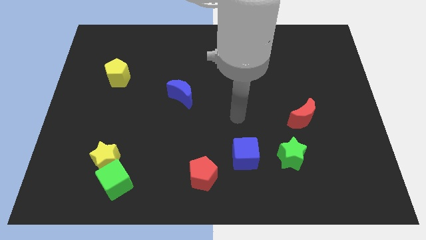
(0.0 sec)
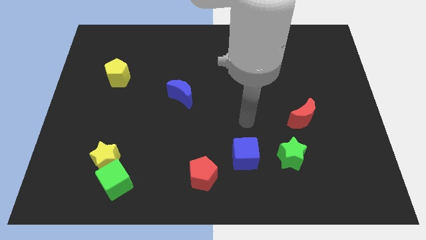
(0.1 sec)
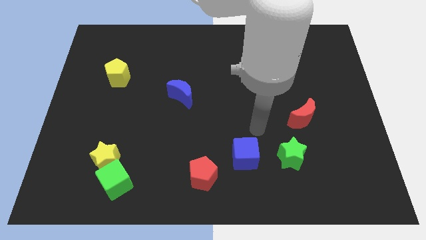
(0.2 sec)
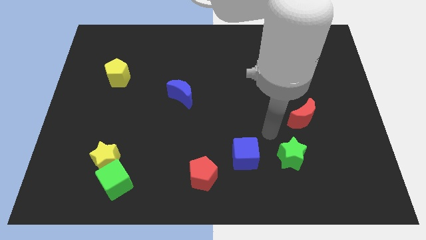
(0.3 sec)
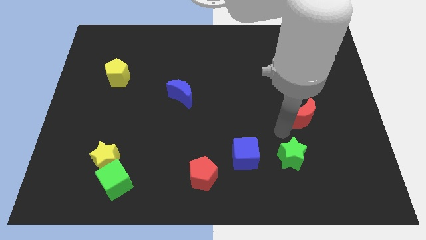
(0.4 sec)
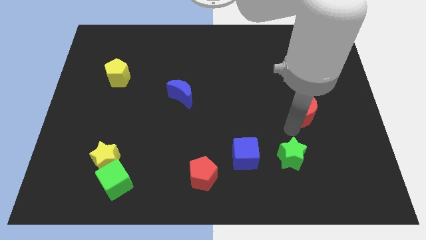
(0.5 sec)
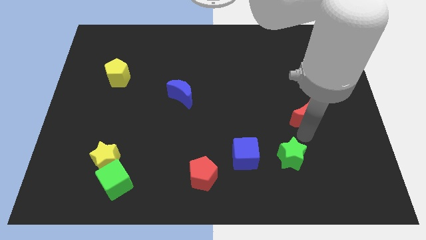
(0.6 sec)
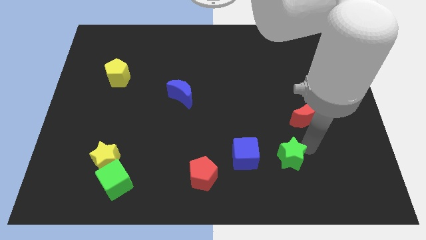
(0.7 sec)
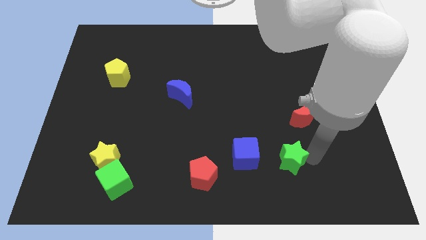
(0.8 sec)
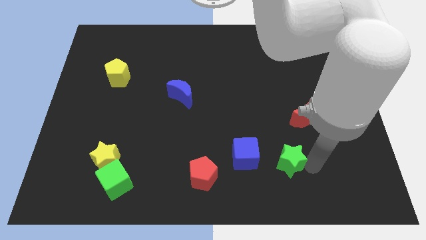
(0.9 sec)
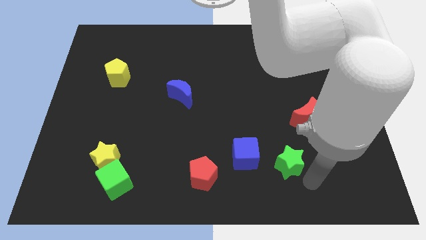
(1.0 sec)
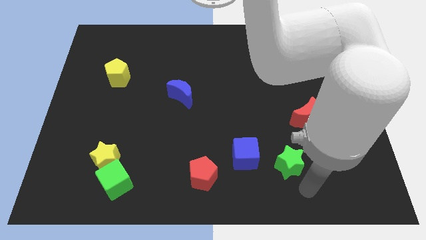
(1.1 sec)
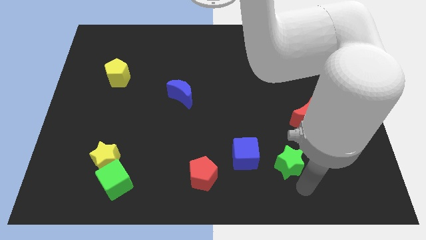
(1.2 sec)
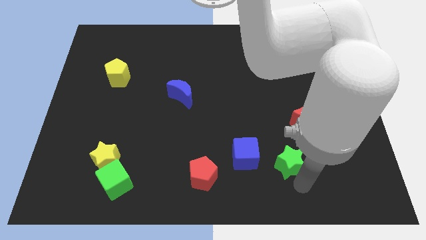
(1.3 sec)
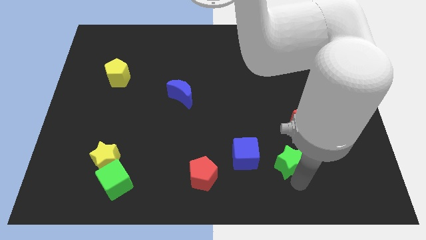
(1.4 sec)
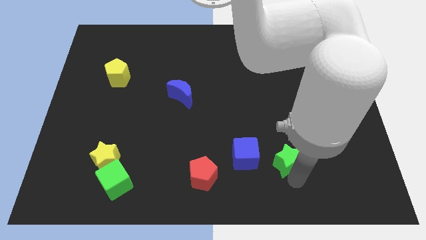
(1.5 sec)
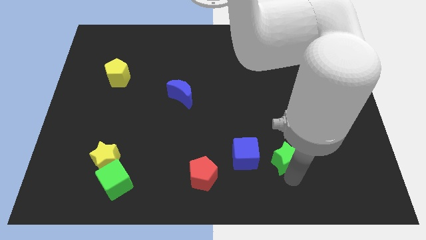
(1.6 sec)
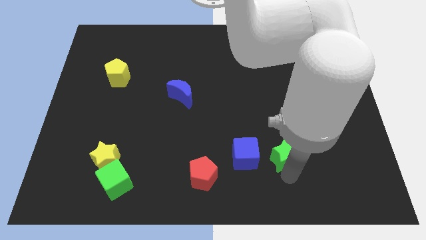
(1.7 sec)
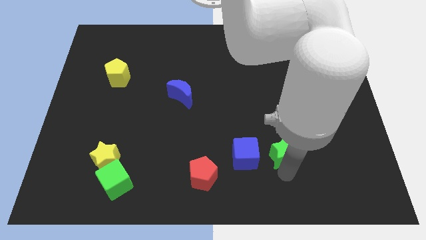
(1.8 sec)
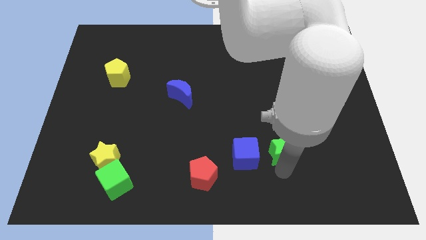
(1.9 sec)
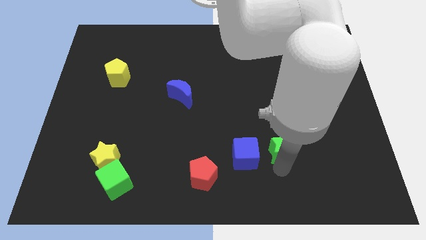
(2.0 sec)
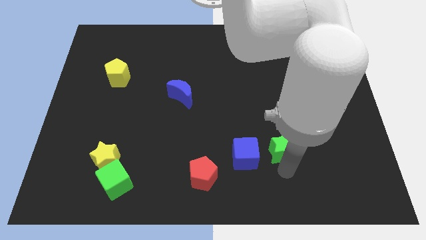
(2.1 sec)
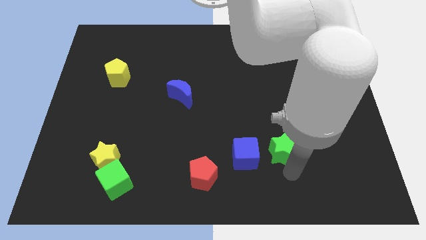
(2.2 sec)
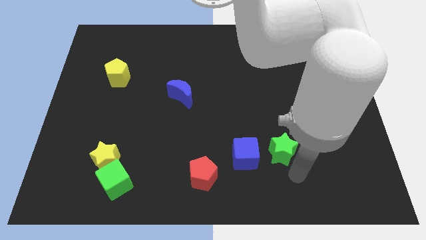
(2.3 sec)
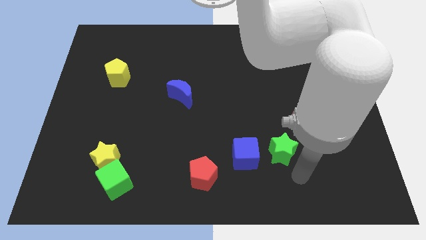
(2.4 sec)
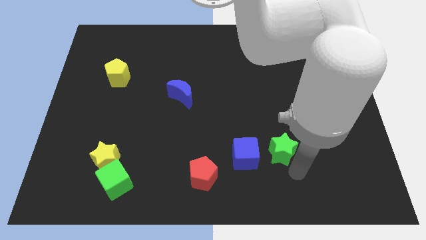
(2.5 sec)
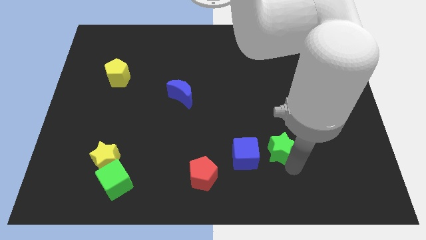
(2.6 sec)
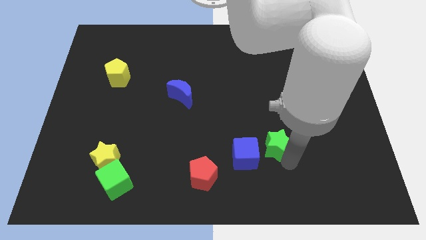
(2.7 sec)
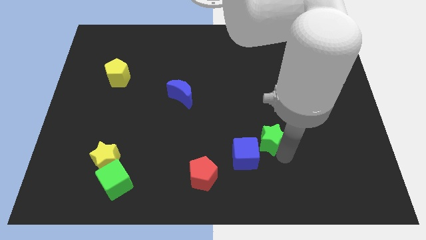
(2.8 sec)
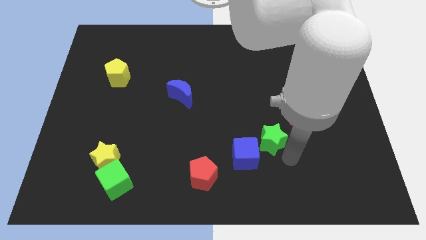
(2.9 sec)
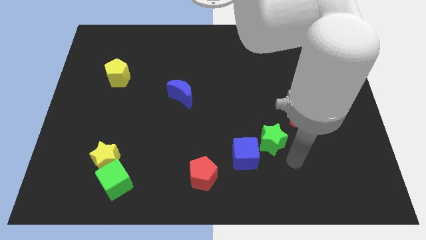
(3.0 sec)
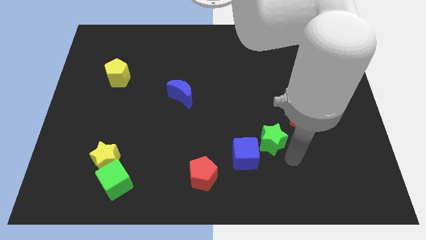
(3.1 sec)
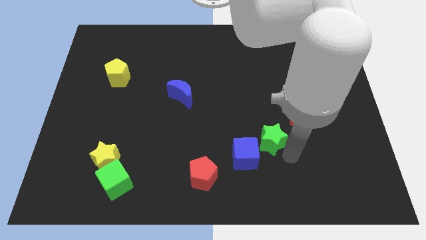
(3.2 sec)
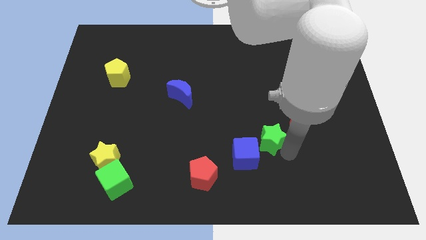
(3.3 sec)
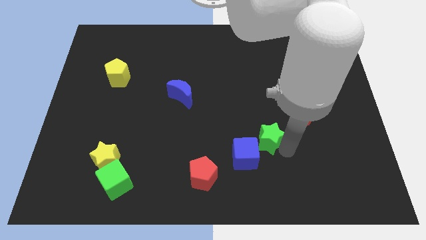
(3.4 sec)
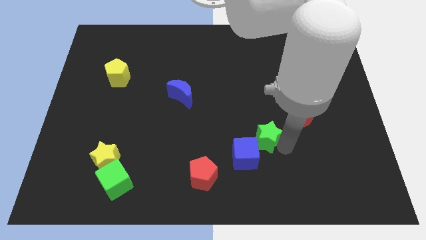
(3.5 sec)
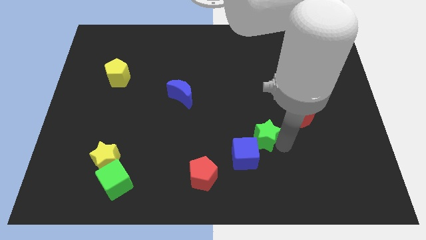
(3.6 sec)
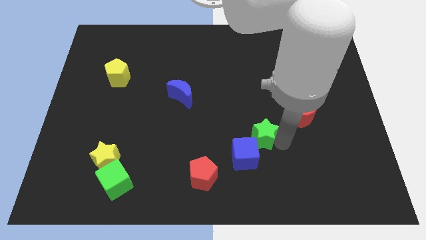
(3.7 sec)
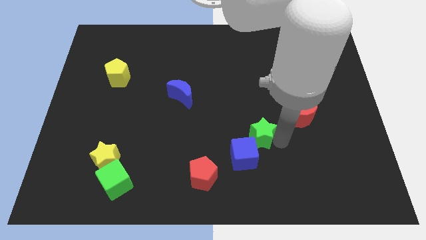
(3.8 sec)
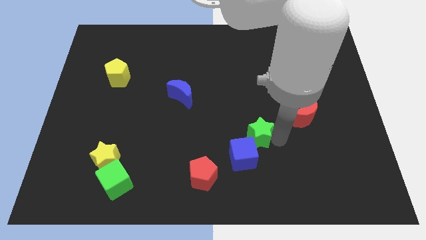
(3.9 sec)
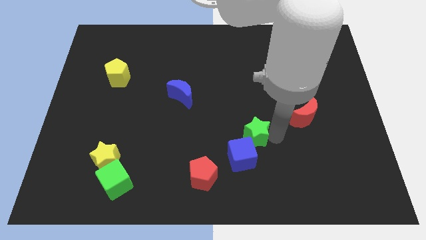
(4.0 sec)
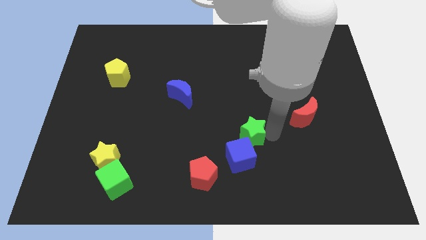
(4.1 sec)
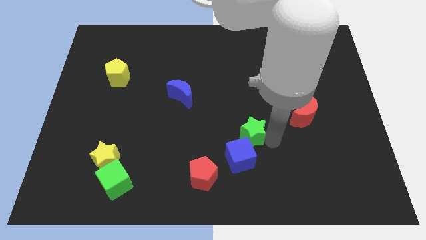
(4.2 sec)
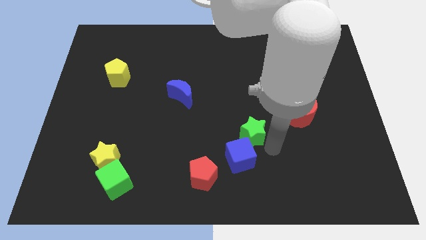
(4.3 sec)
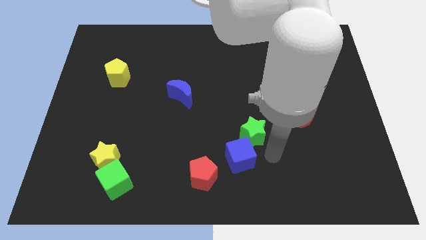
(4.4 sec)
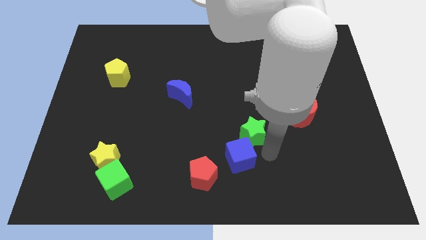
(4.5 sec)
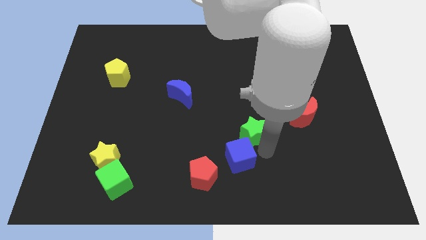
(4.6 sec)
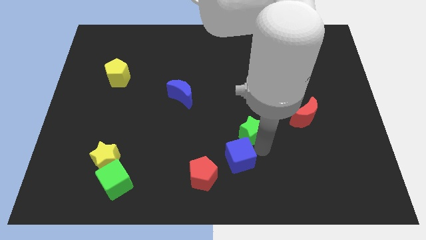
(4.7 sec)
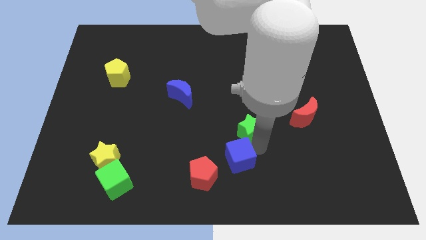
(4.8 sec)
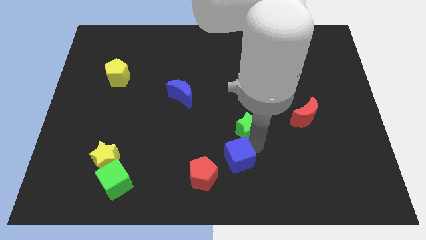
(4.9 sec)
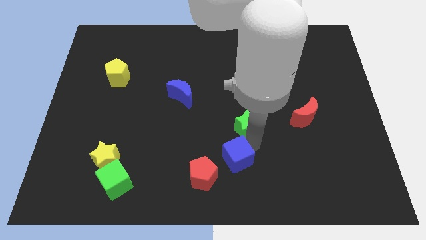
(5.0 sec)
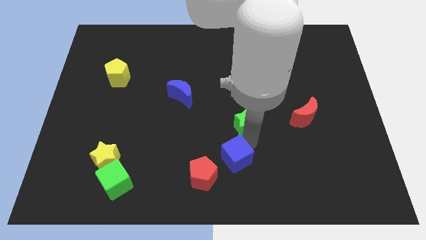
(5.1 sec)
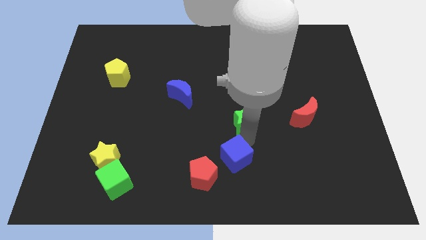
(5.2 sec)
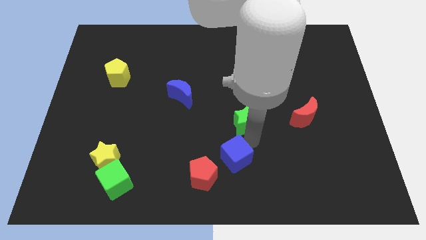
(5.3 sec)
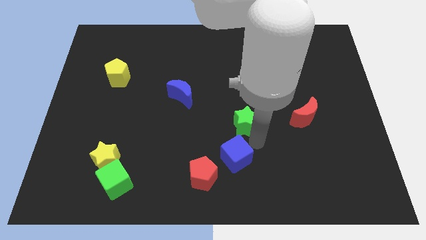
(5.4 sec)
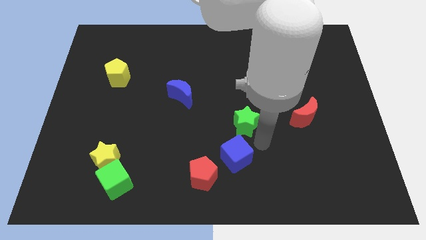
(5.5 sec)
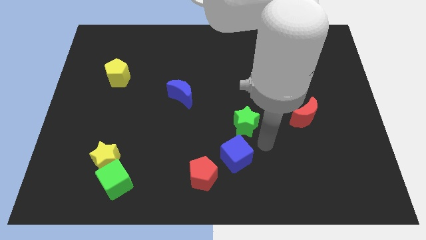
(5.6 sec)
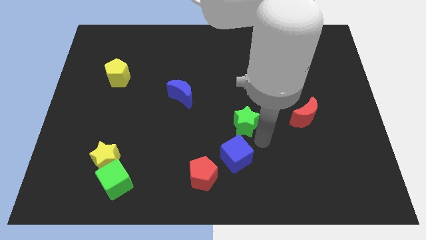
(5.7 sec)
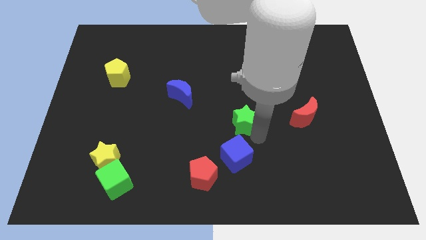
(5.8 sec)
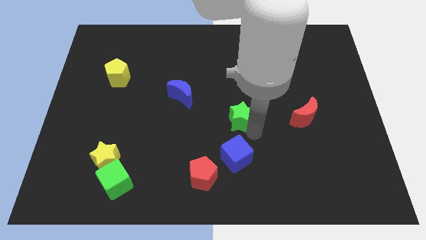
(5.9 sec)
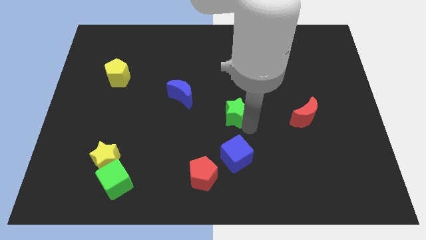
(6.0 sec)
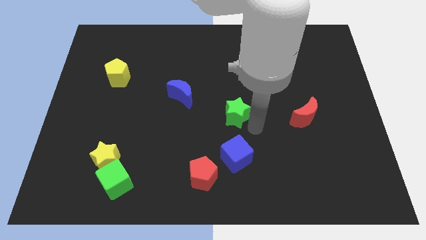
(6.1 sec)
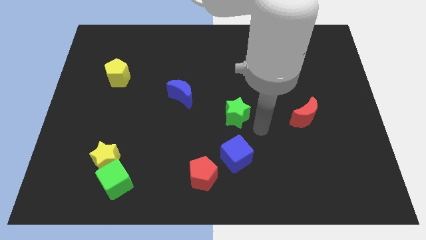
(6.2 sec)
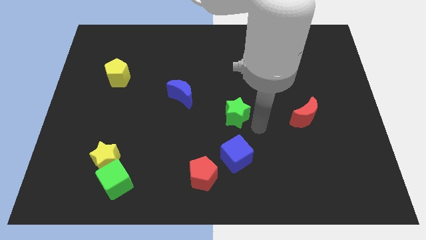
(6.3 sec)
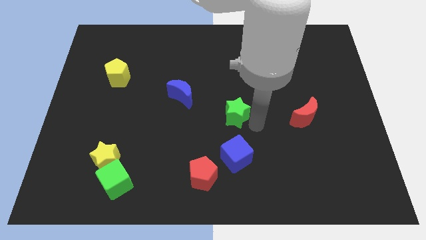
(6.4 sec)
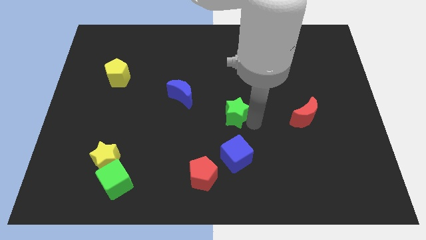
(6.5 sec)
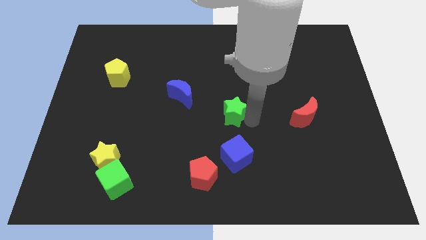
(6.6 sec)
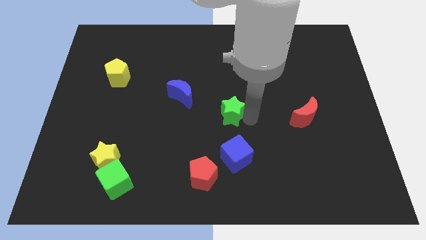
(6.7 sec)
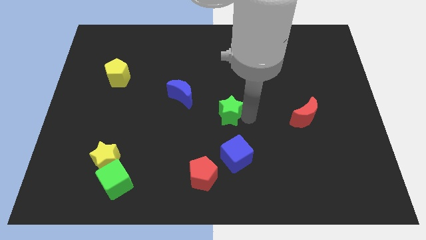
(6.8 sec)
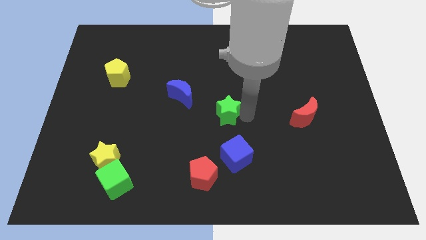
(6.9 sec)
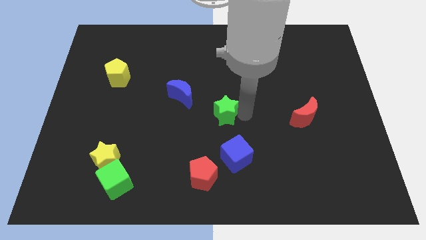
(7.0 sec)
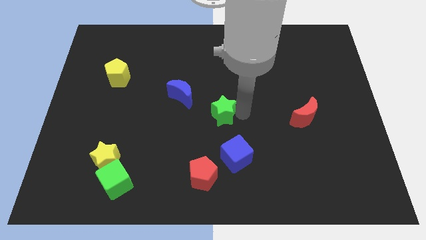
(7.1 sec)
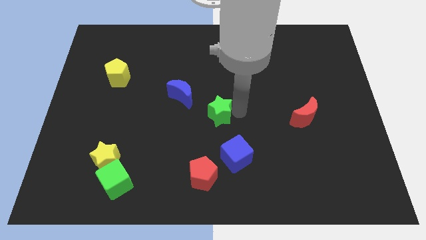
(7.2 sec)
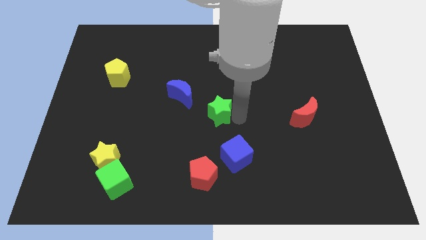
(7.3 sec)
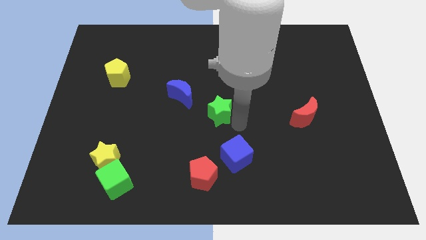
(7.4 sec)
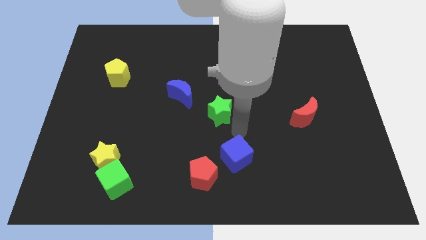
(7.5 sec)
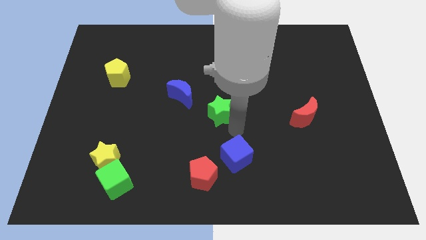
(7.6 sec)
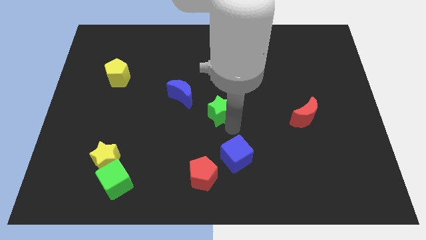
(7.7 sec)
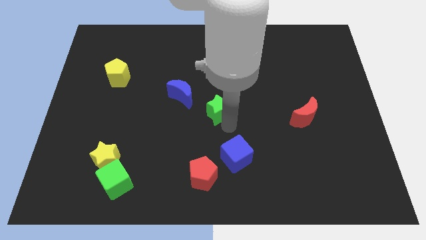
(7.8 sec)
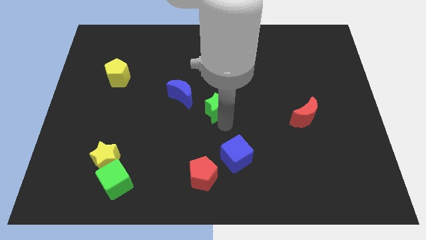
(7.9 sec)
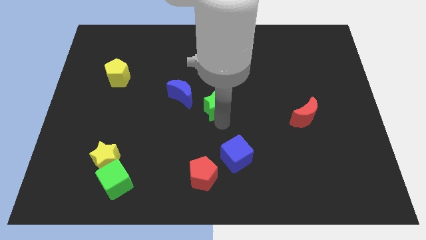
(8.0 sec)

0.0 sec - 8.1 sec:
move the green star diagonally upwards and left
